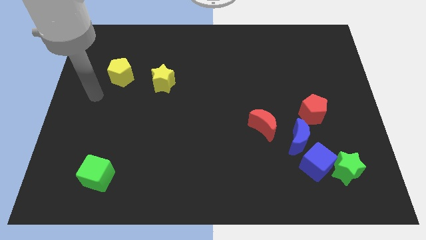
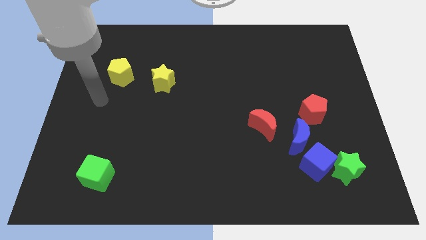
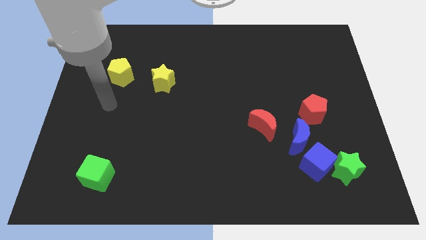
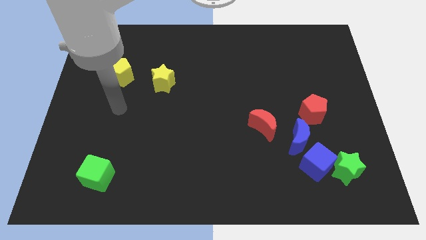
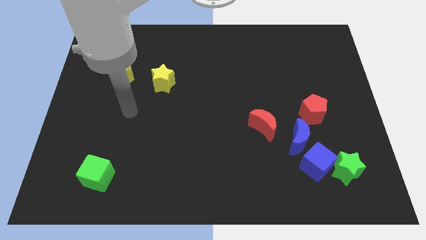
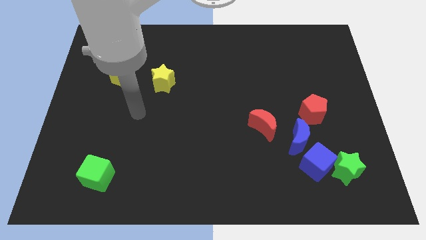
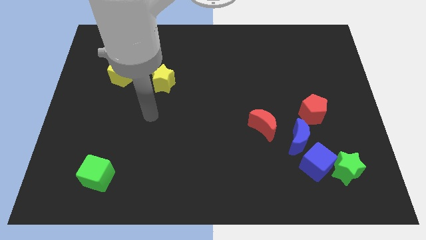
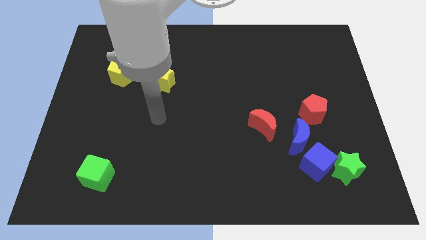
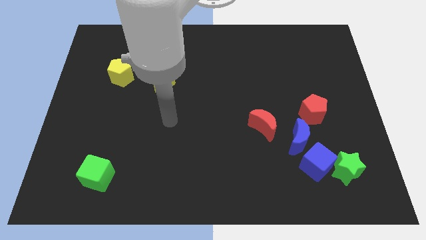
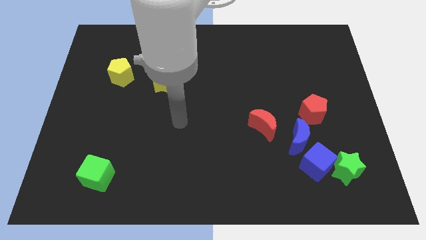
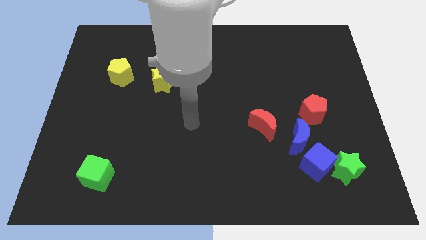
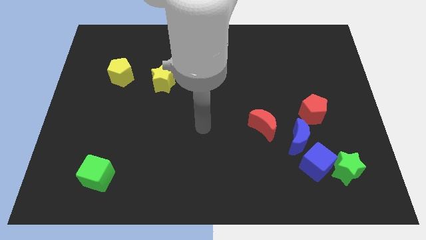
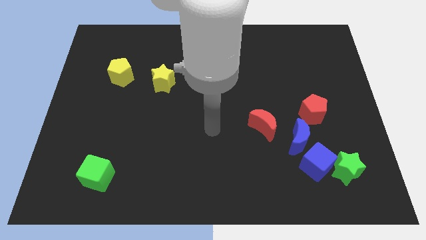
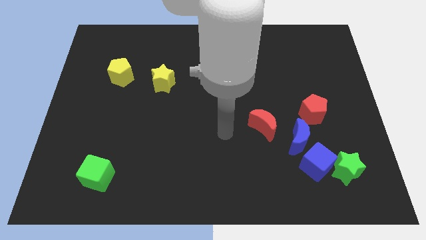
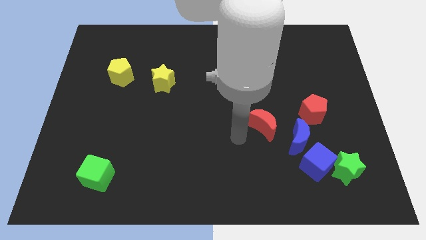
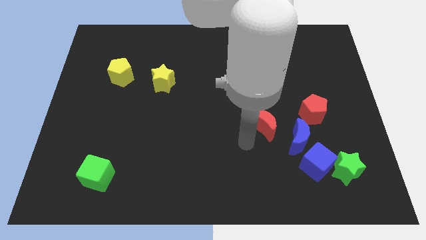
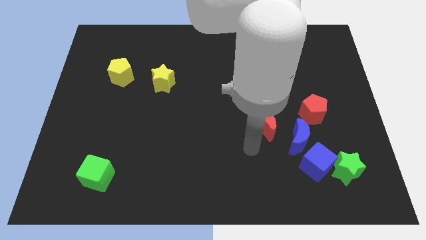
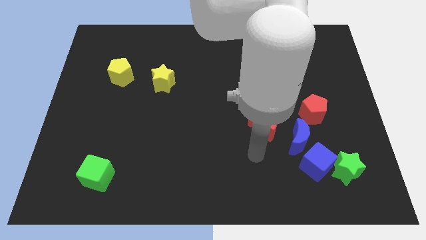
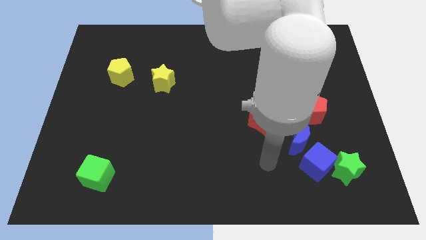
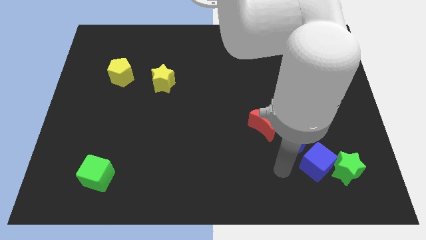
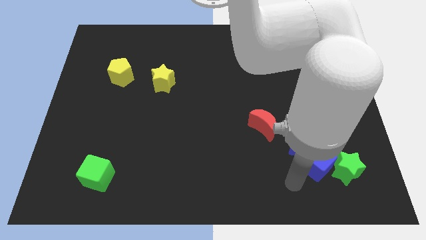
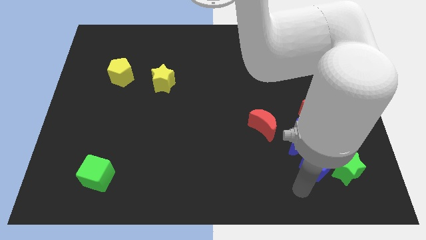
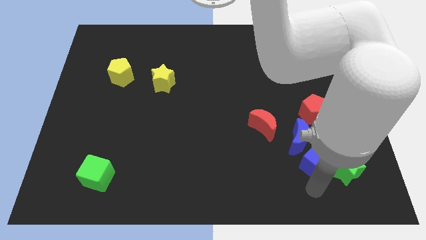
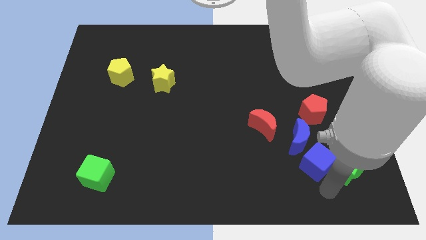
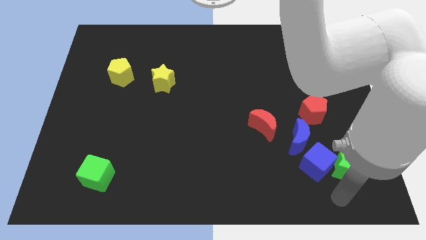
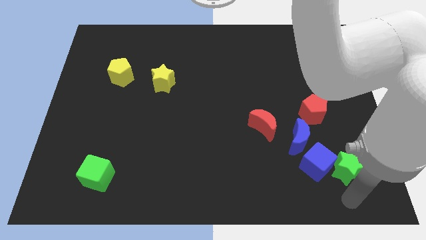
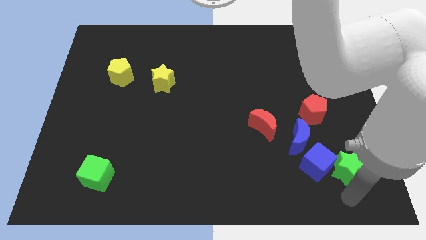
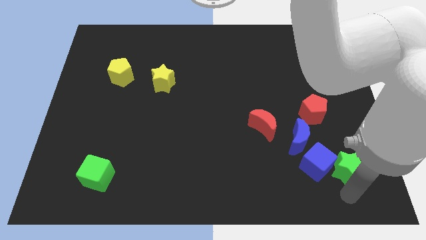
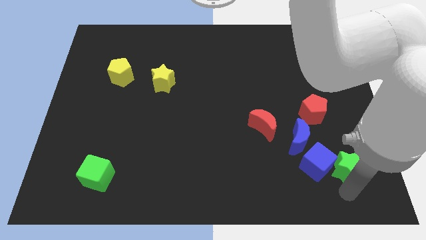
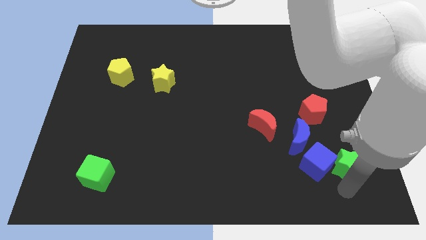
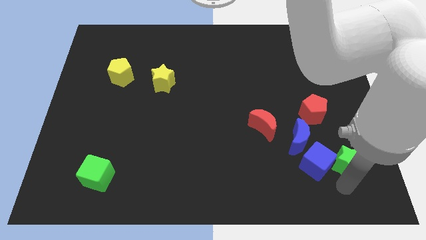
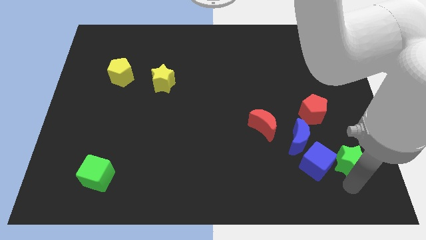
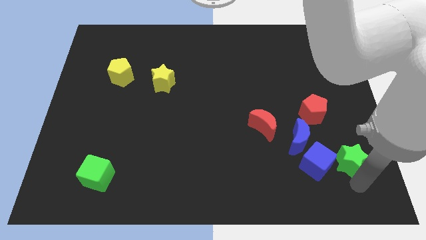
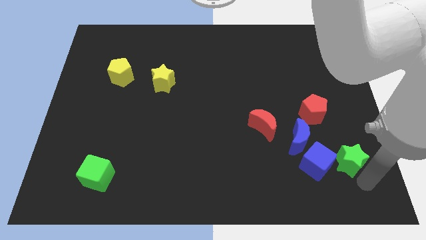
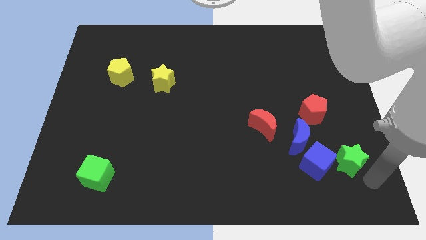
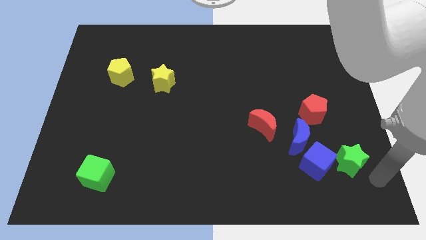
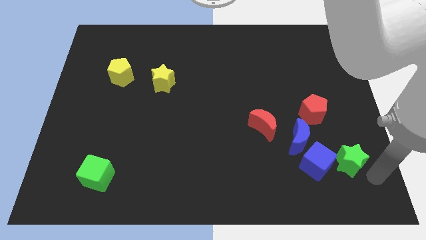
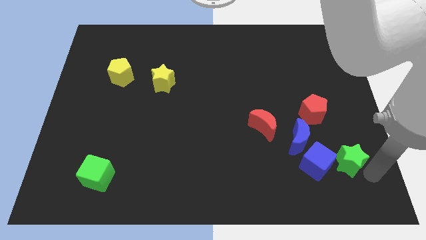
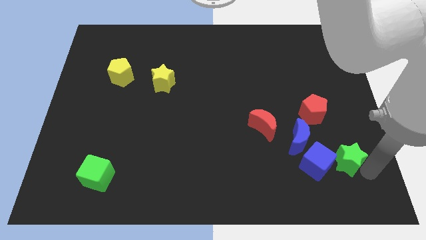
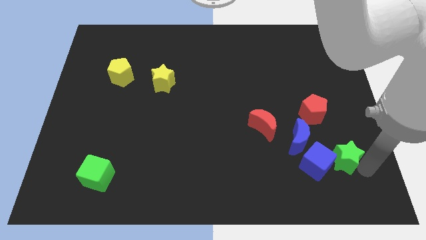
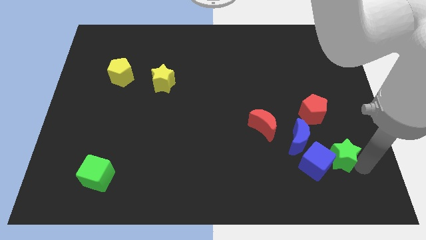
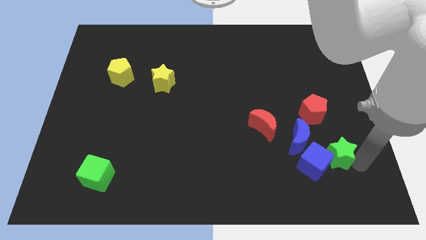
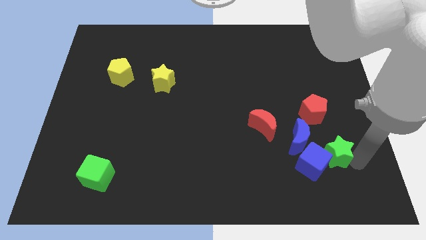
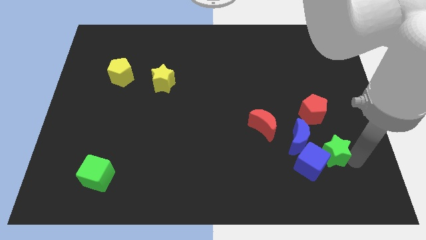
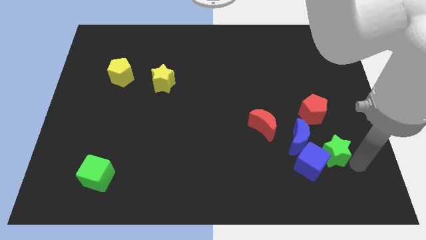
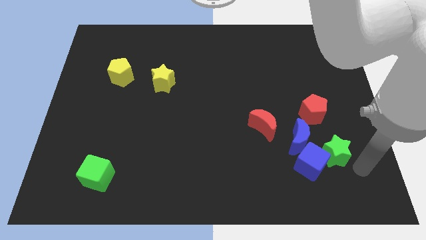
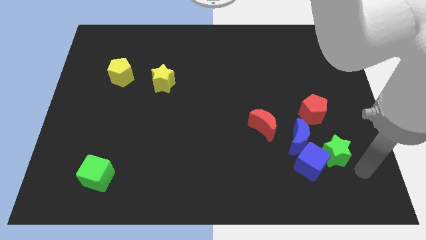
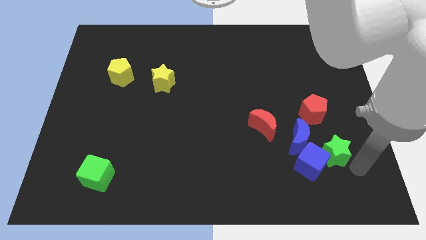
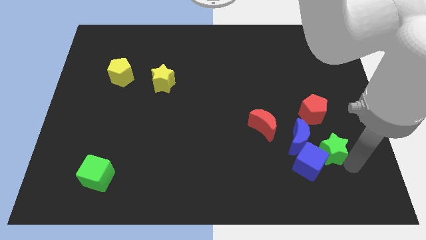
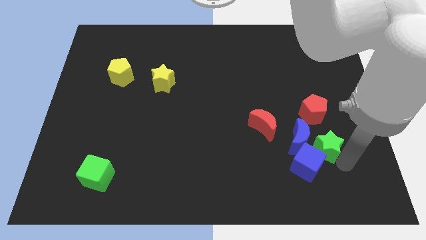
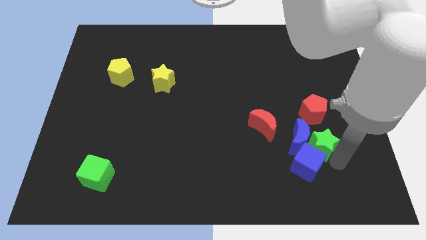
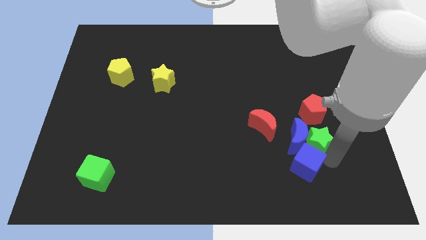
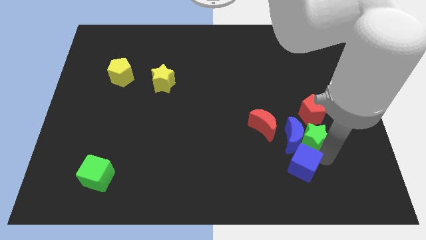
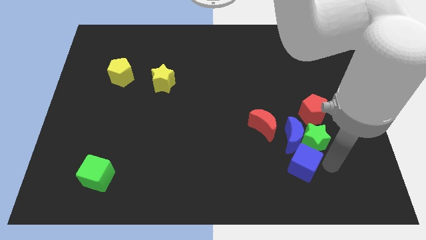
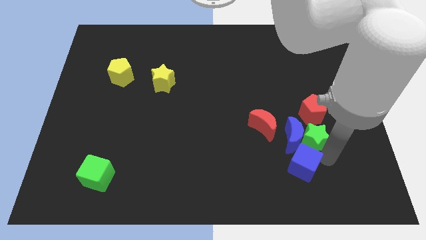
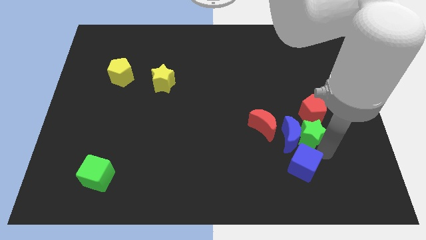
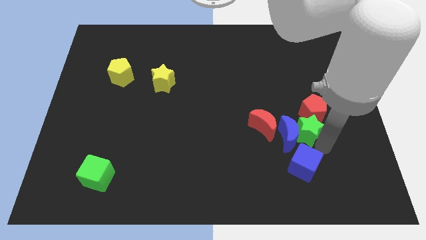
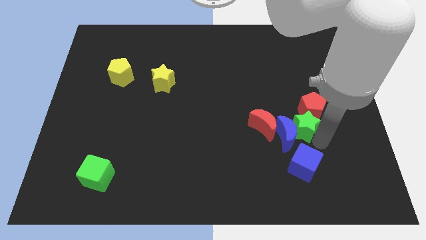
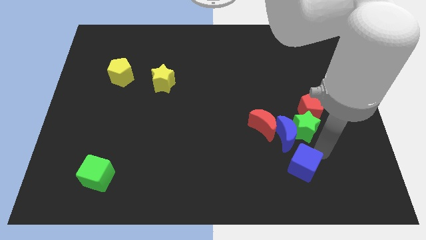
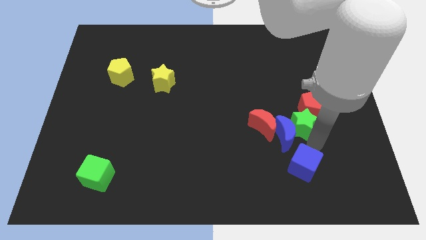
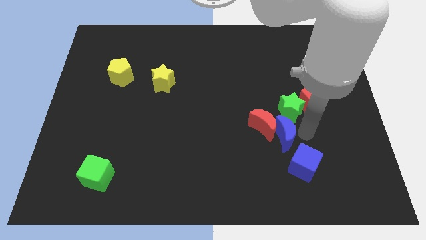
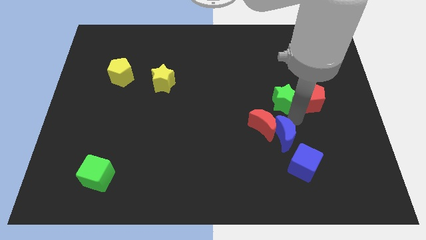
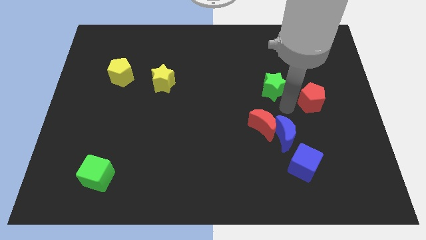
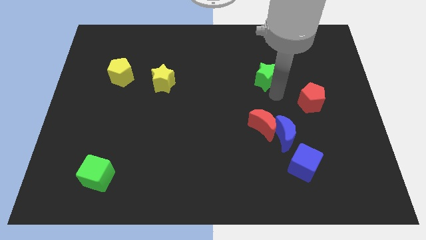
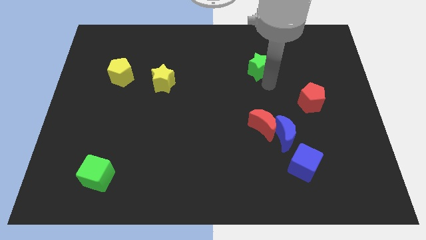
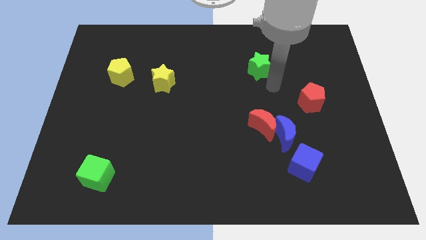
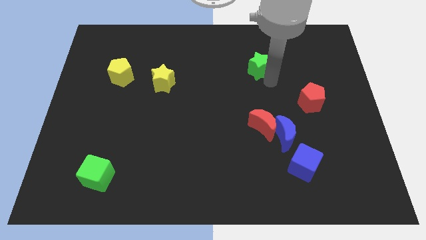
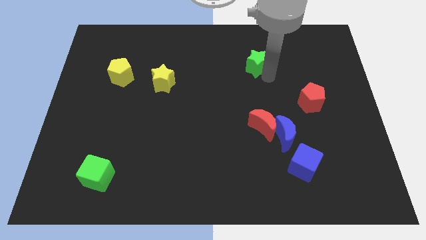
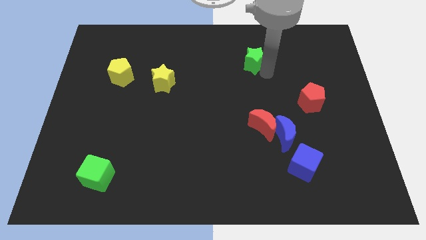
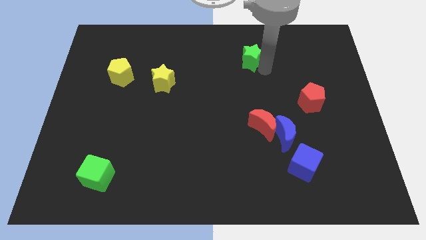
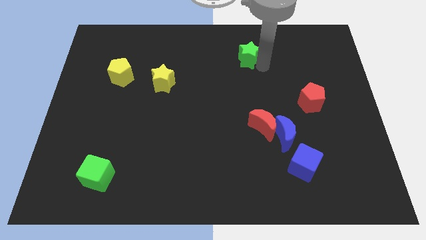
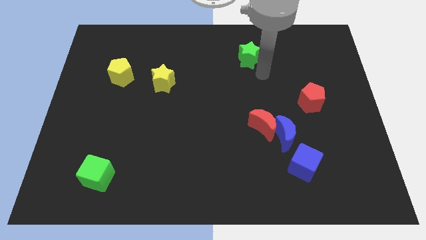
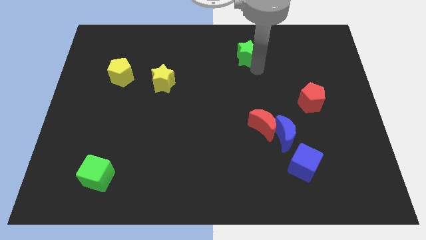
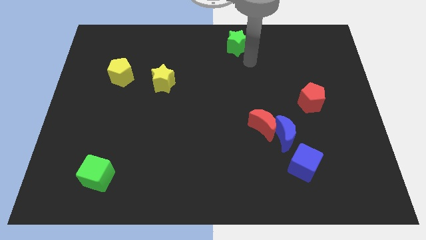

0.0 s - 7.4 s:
move the green star to the towards your base

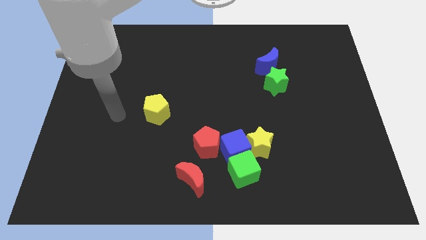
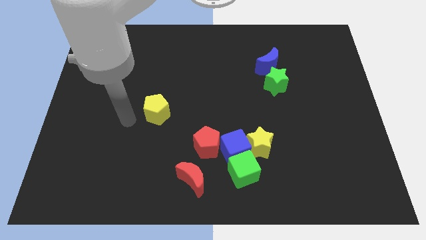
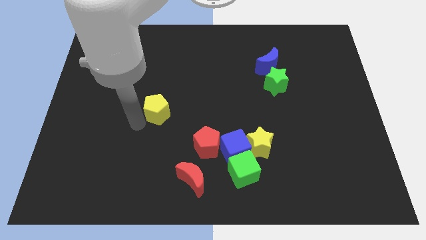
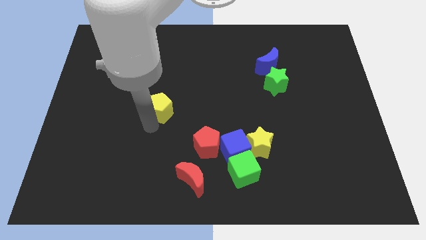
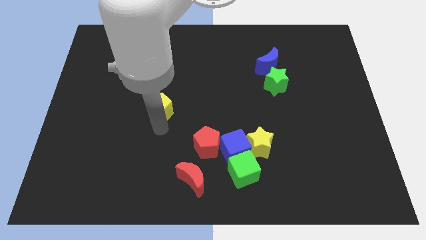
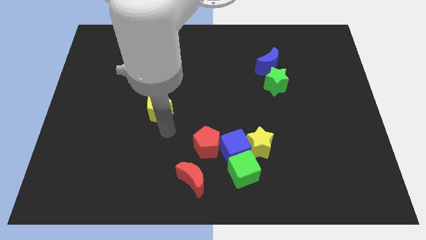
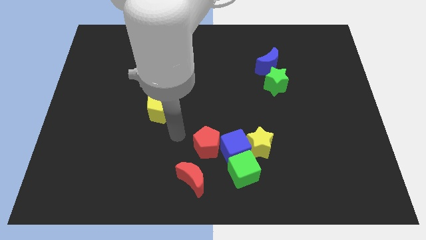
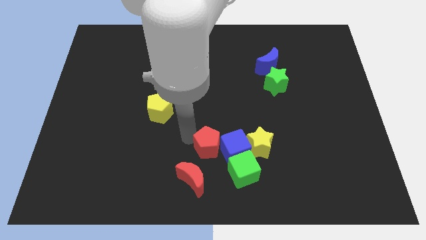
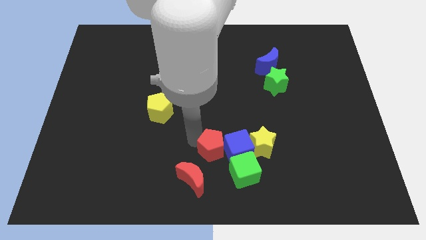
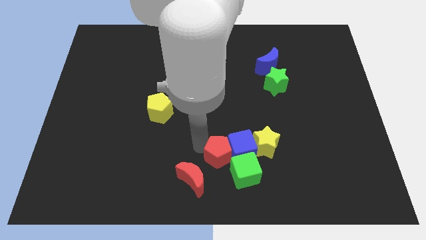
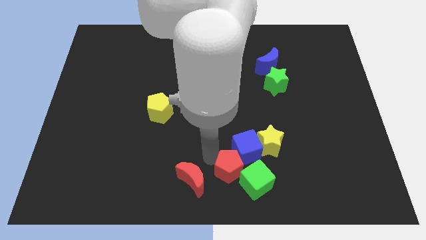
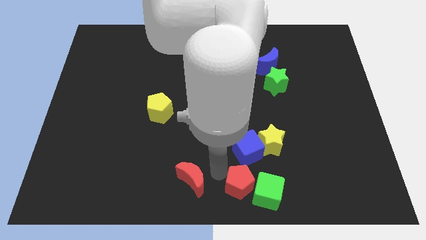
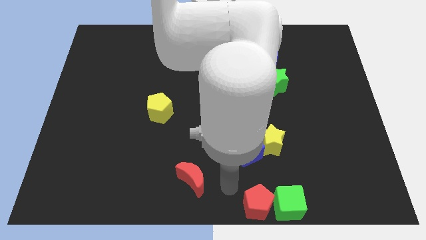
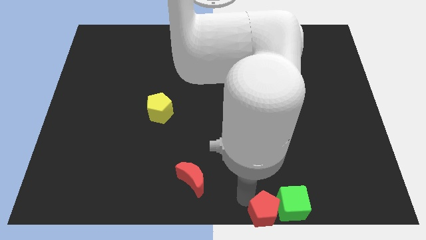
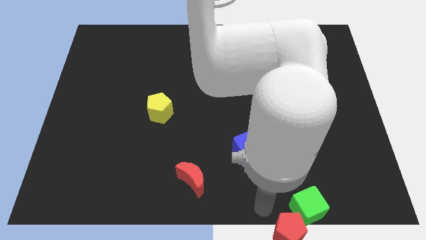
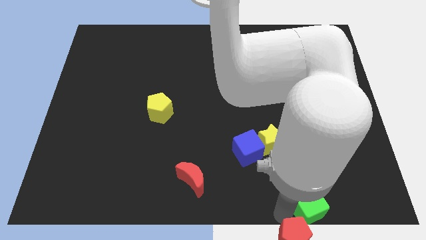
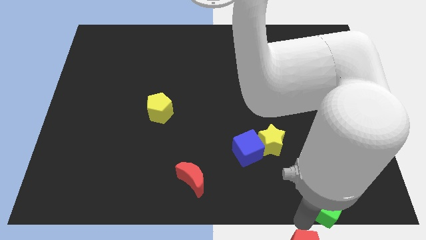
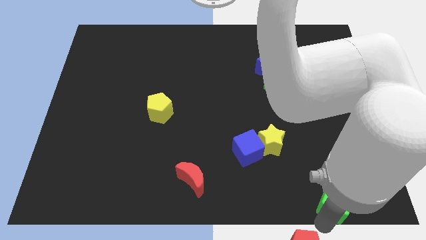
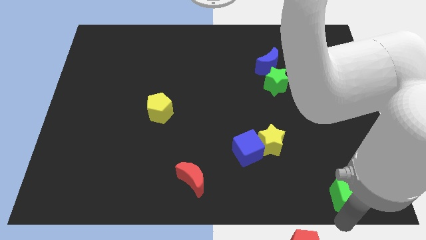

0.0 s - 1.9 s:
slide the green cube to the lower right corner
